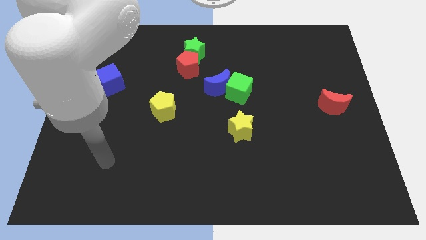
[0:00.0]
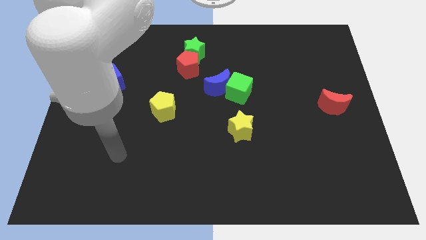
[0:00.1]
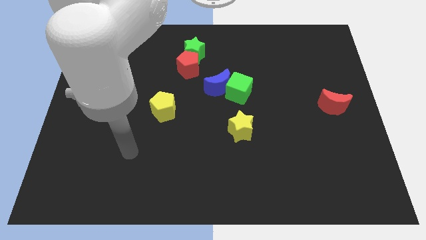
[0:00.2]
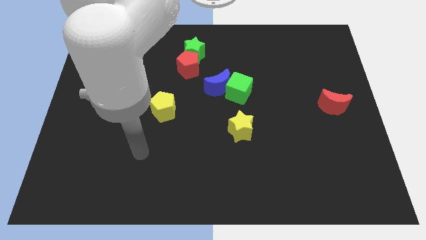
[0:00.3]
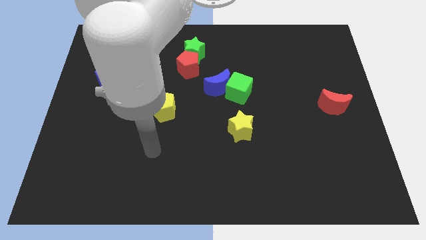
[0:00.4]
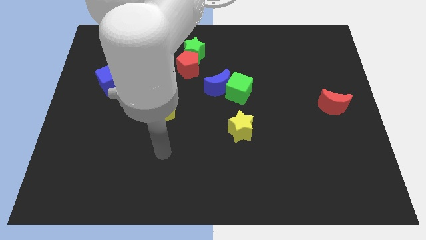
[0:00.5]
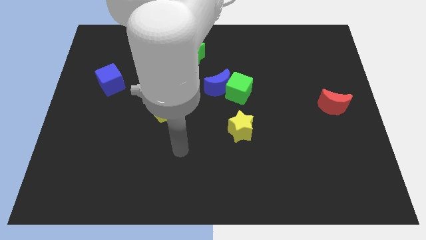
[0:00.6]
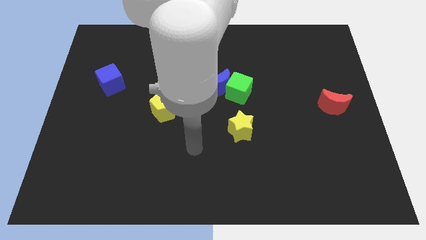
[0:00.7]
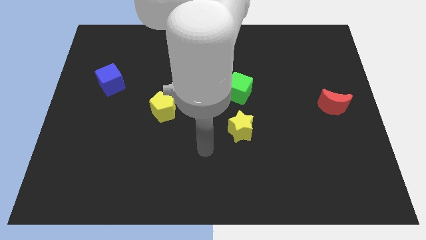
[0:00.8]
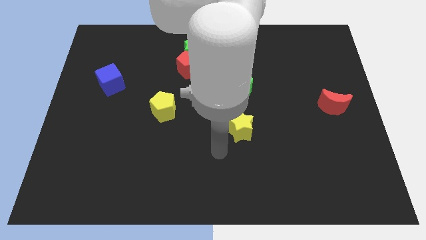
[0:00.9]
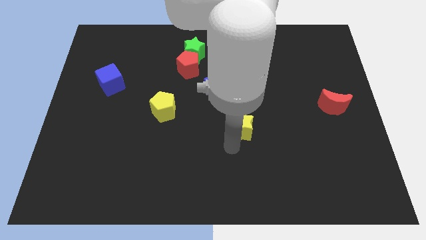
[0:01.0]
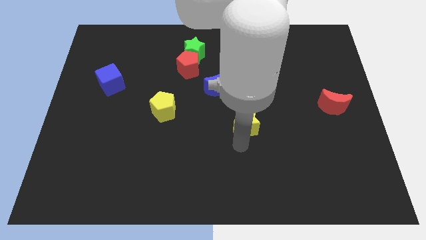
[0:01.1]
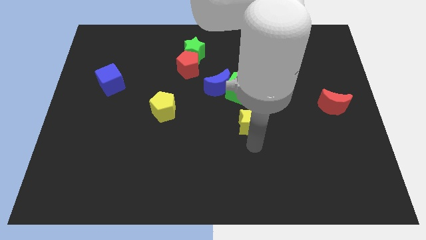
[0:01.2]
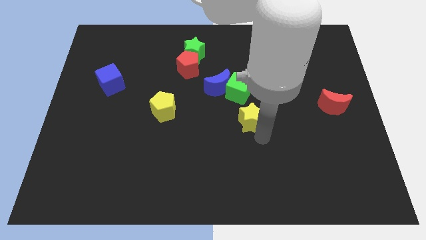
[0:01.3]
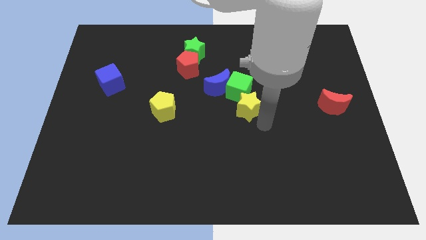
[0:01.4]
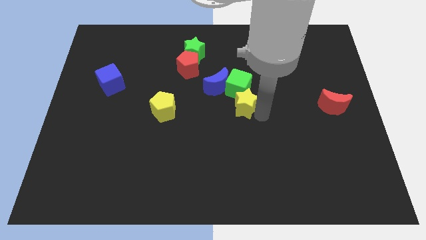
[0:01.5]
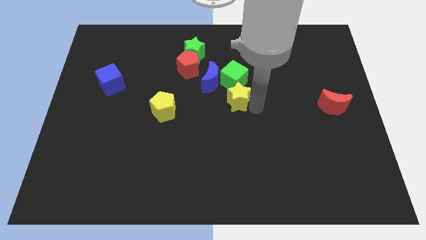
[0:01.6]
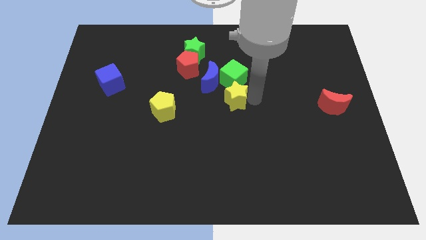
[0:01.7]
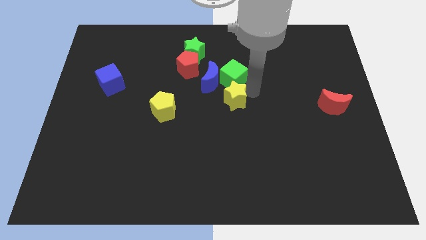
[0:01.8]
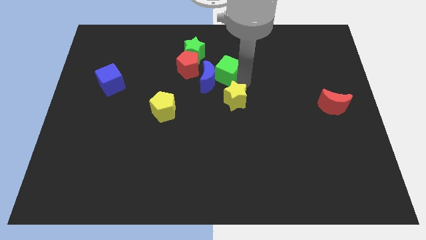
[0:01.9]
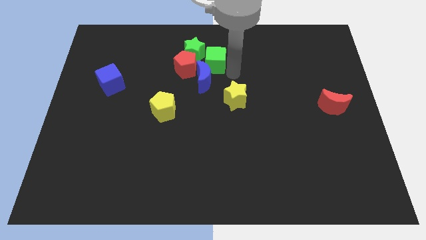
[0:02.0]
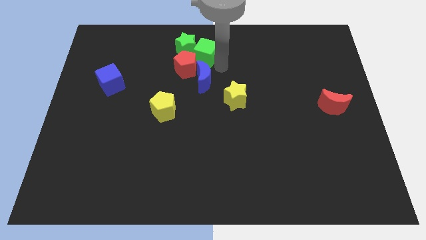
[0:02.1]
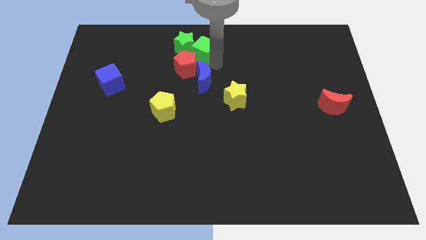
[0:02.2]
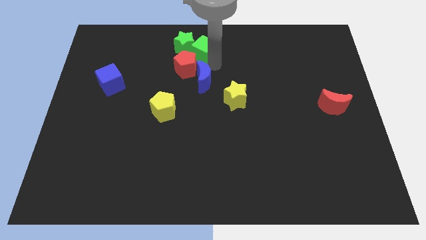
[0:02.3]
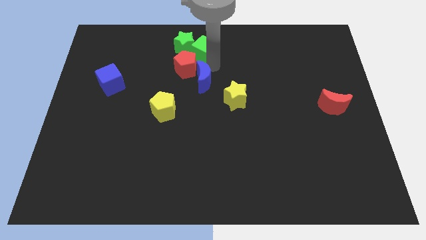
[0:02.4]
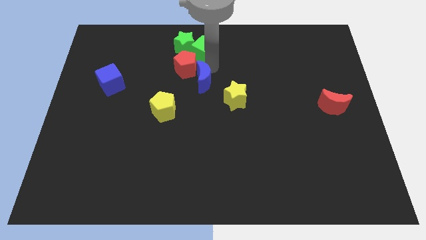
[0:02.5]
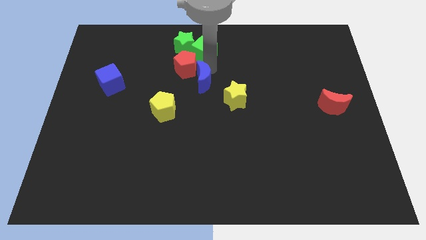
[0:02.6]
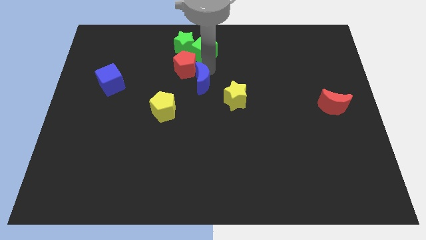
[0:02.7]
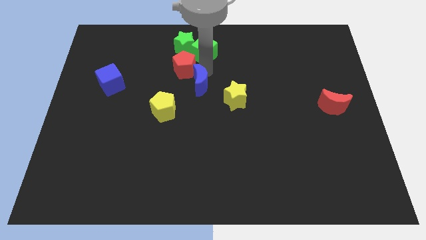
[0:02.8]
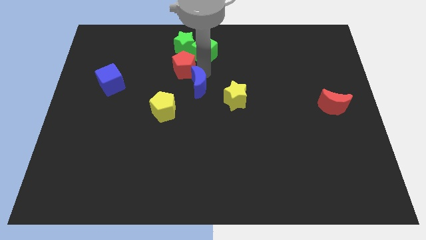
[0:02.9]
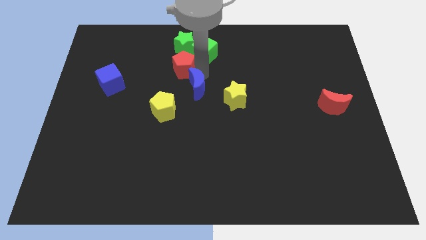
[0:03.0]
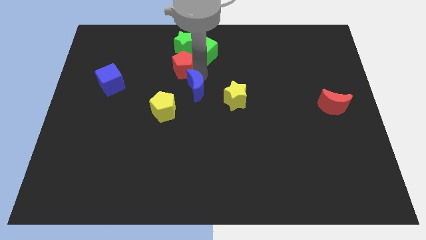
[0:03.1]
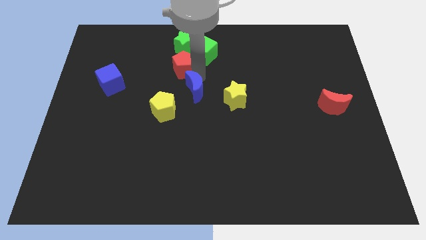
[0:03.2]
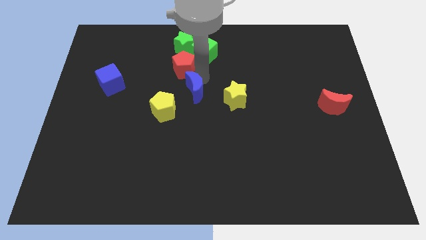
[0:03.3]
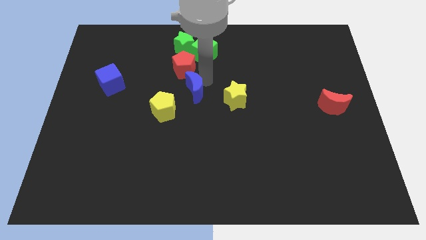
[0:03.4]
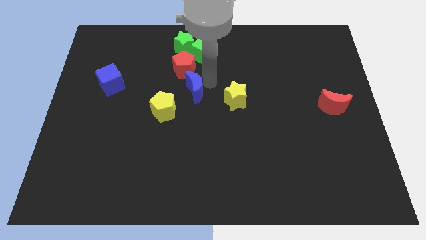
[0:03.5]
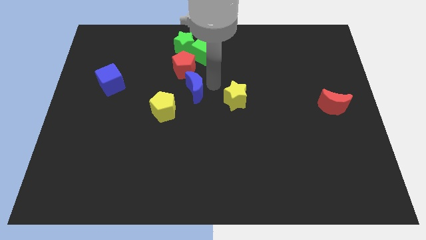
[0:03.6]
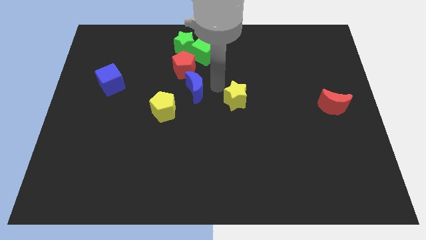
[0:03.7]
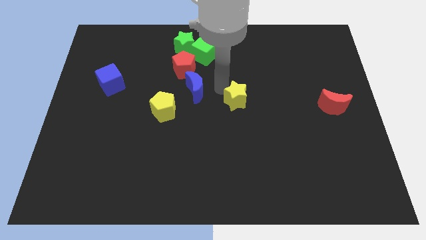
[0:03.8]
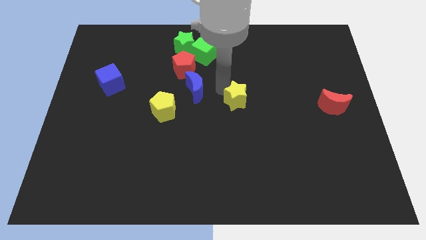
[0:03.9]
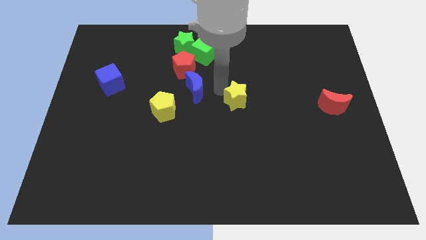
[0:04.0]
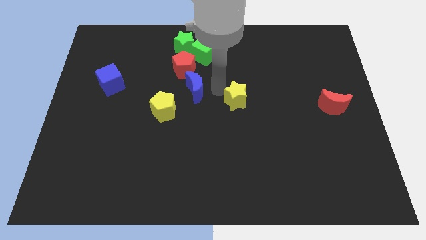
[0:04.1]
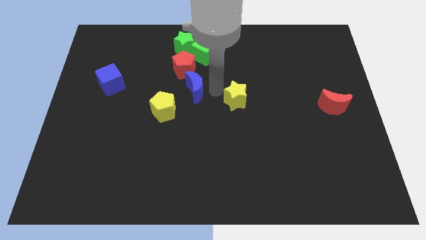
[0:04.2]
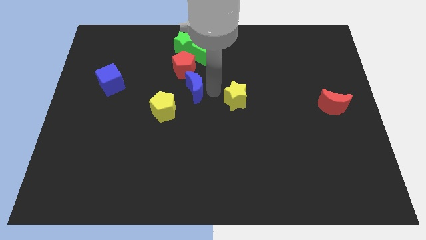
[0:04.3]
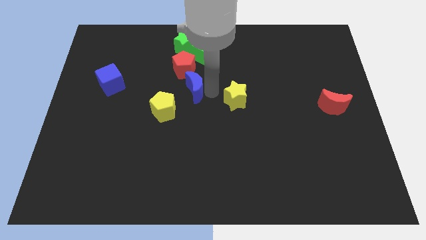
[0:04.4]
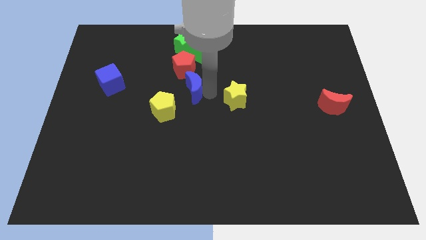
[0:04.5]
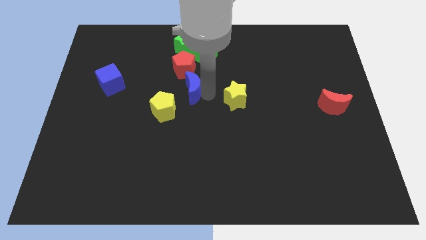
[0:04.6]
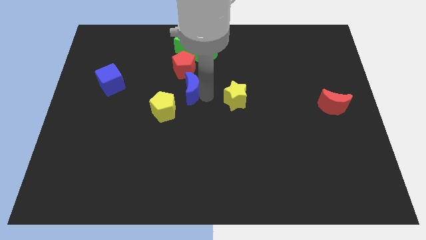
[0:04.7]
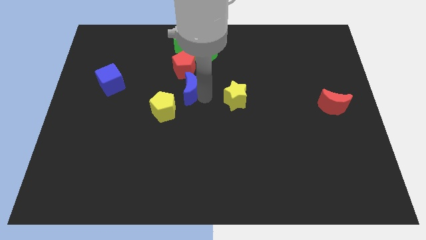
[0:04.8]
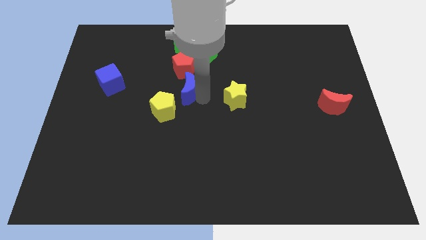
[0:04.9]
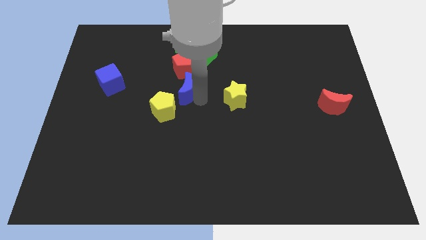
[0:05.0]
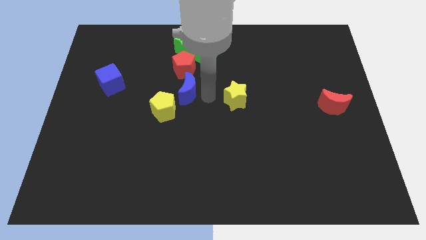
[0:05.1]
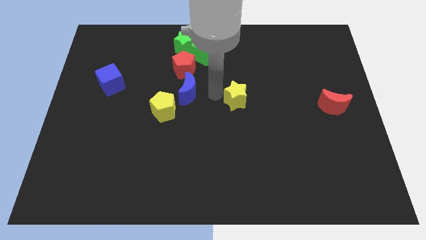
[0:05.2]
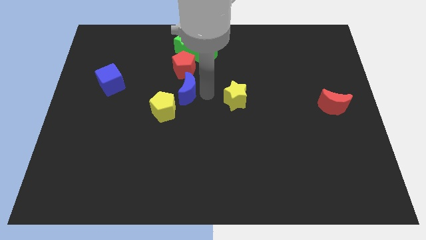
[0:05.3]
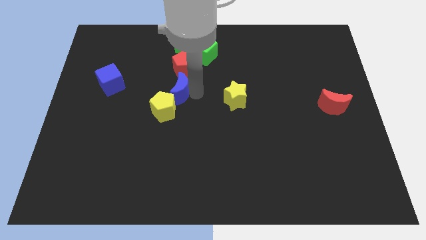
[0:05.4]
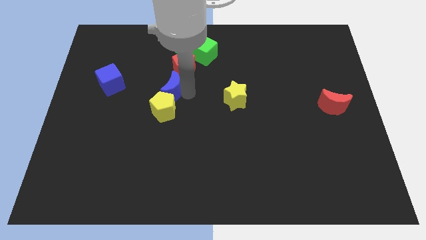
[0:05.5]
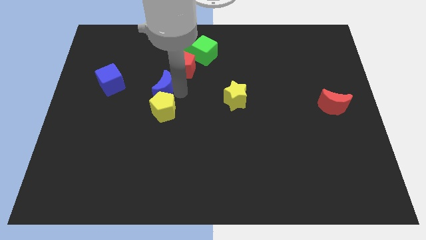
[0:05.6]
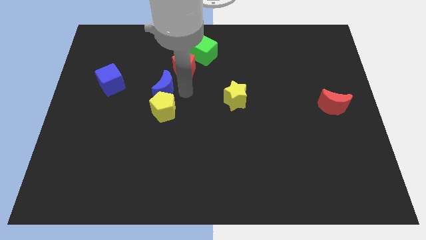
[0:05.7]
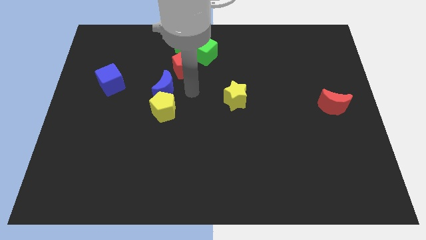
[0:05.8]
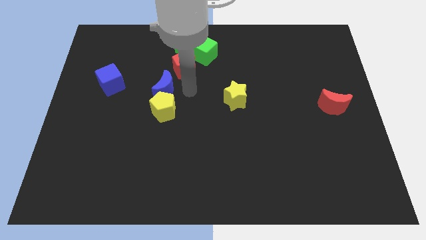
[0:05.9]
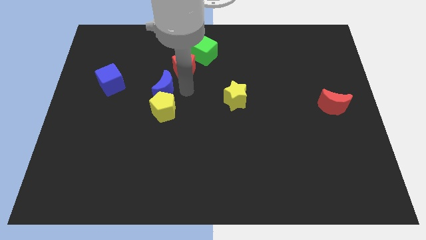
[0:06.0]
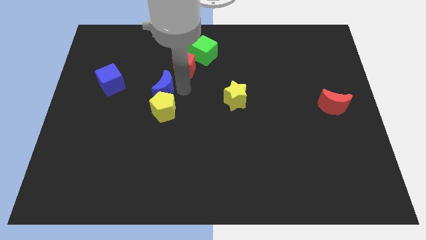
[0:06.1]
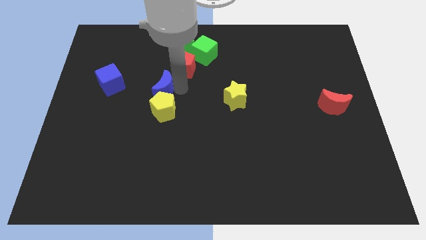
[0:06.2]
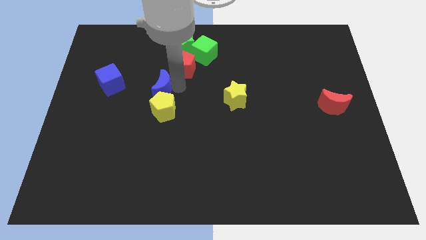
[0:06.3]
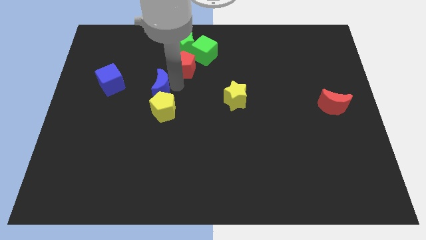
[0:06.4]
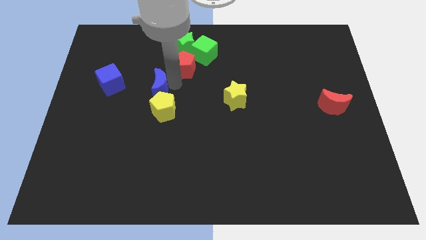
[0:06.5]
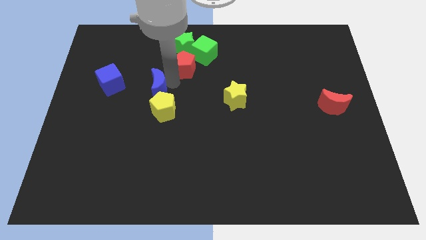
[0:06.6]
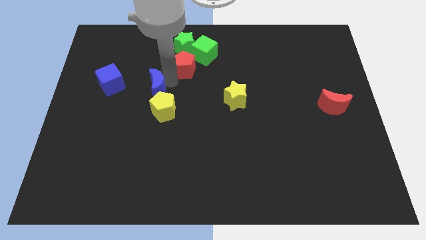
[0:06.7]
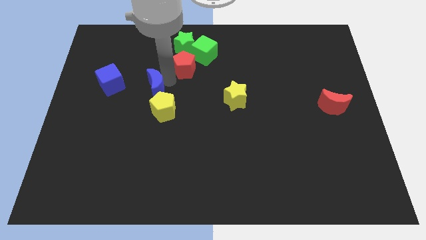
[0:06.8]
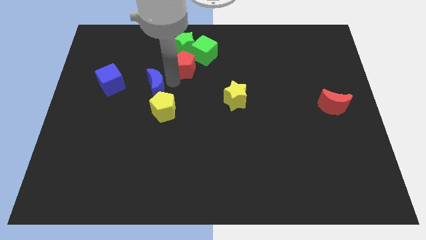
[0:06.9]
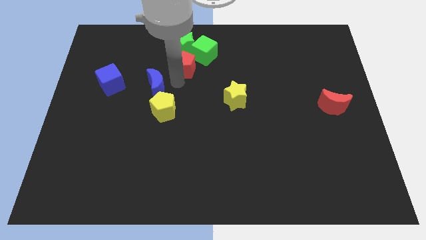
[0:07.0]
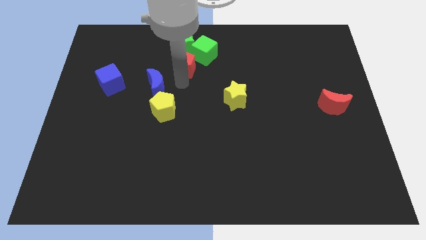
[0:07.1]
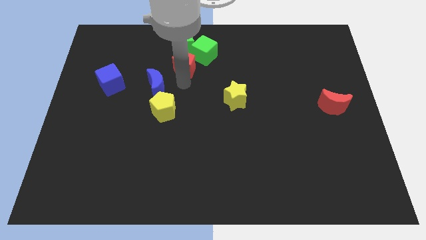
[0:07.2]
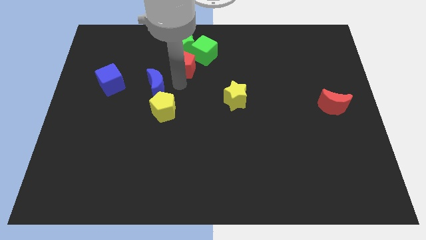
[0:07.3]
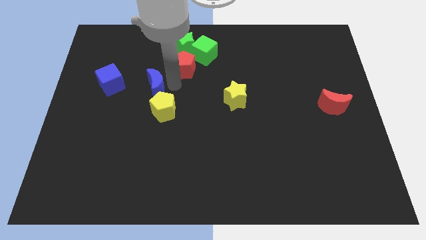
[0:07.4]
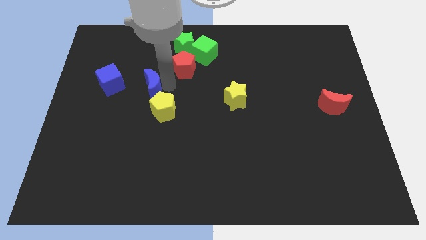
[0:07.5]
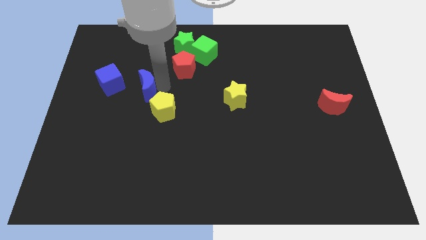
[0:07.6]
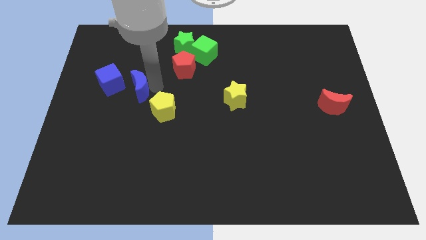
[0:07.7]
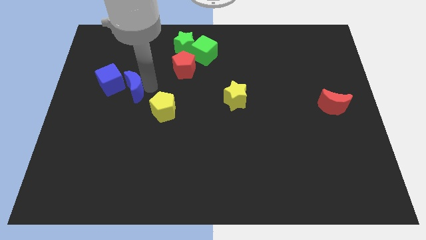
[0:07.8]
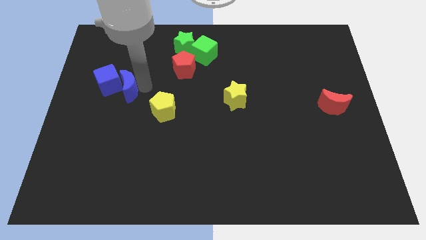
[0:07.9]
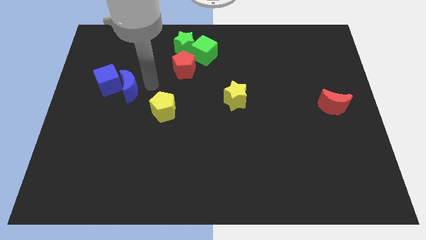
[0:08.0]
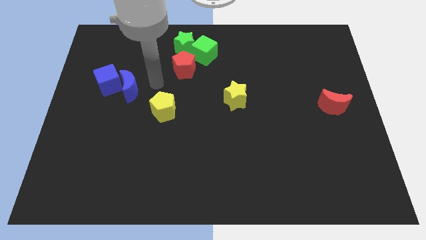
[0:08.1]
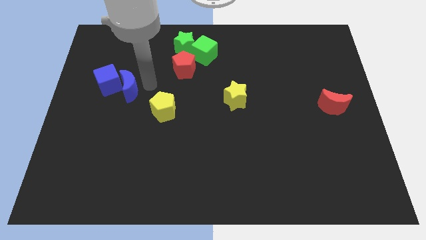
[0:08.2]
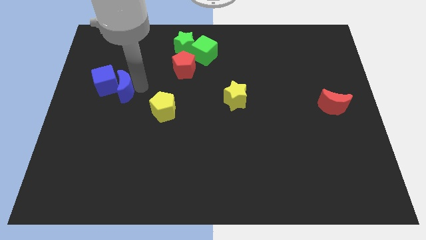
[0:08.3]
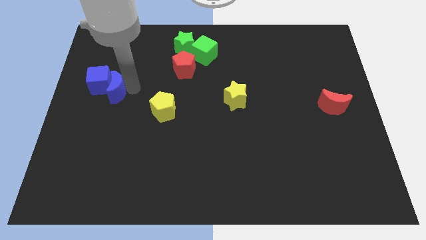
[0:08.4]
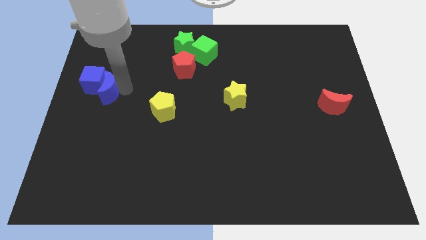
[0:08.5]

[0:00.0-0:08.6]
push the blue moon to the center left
